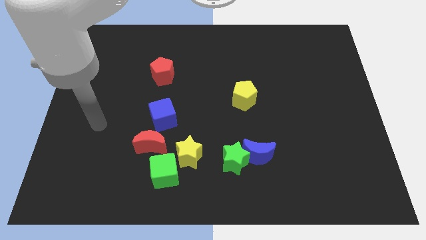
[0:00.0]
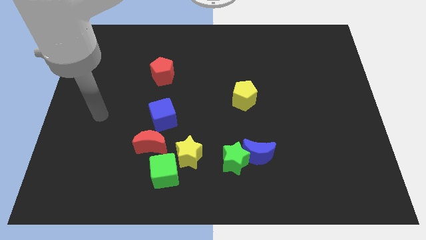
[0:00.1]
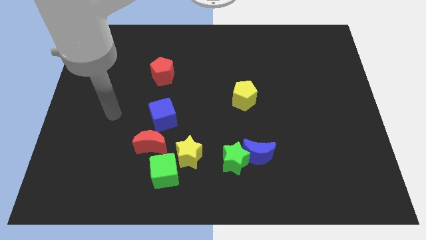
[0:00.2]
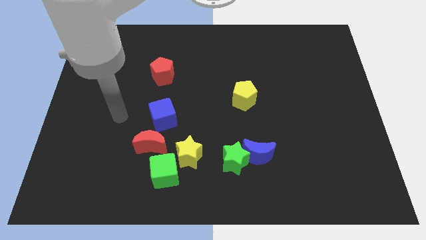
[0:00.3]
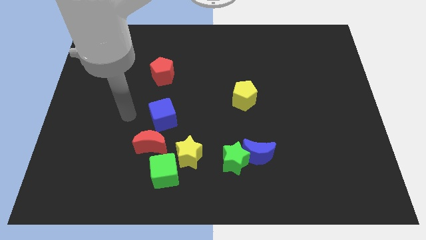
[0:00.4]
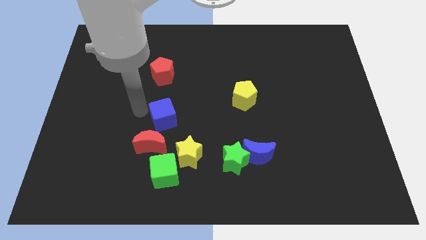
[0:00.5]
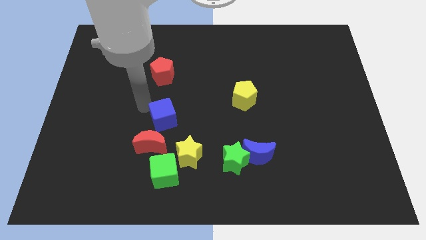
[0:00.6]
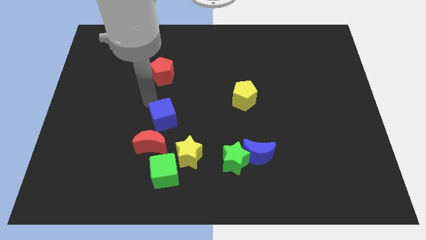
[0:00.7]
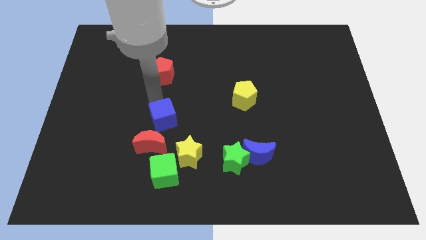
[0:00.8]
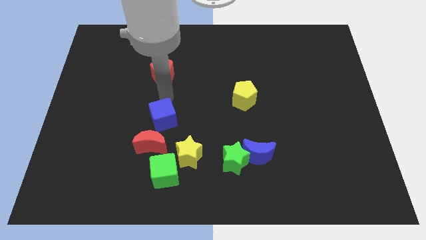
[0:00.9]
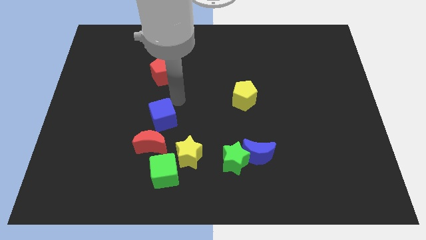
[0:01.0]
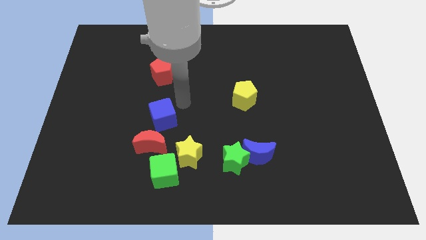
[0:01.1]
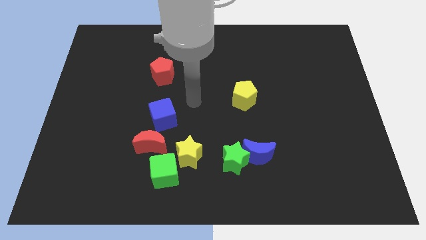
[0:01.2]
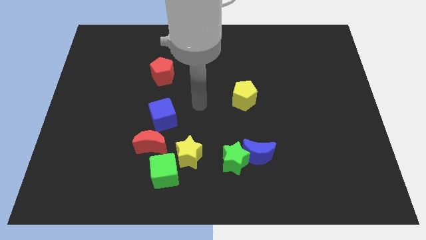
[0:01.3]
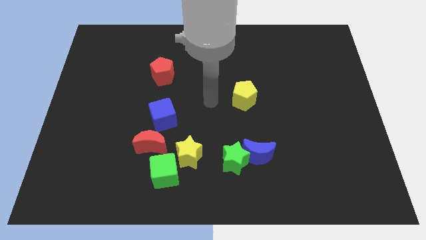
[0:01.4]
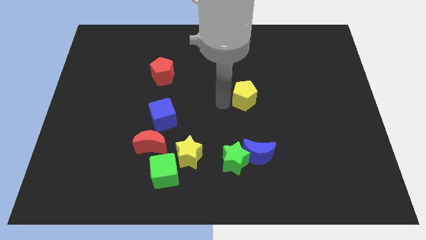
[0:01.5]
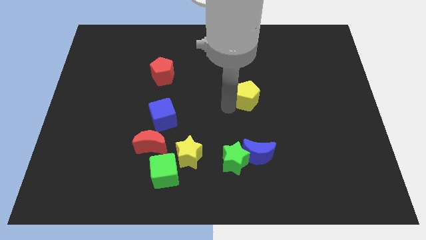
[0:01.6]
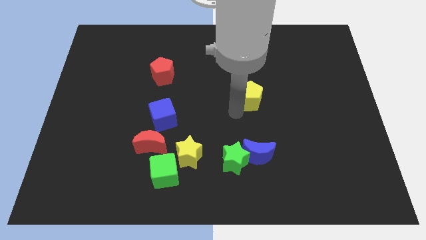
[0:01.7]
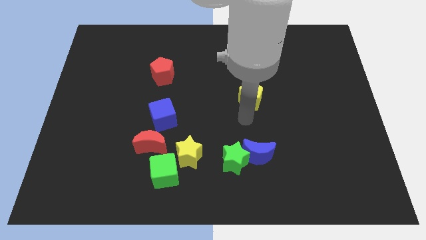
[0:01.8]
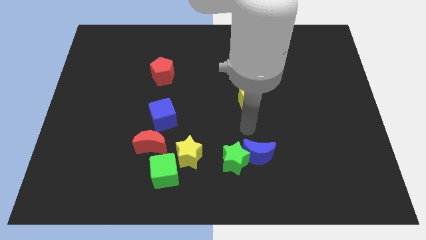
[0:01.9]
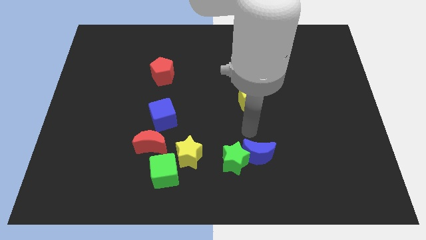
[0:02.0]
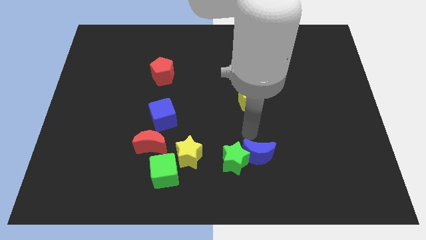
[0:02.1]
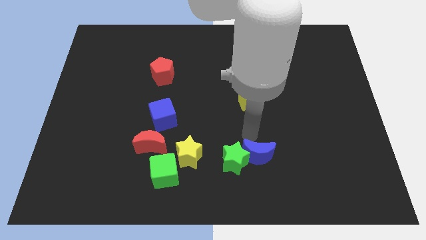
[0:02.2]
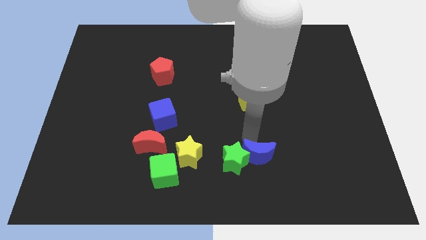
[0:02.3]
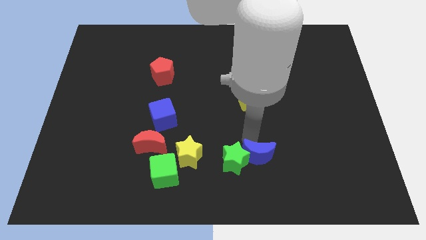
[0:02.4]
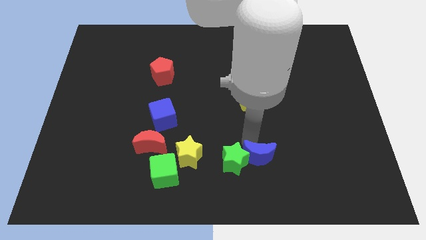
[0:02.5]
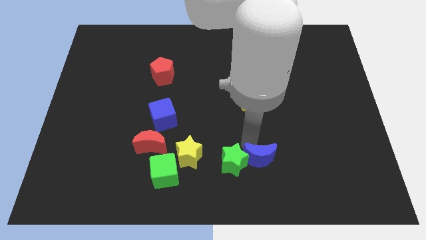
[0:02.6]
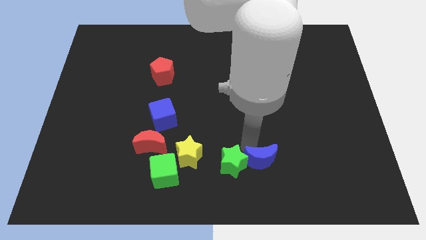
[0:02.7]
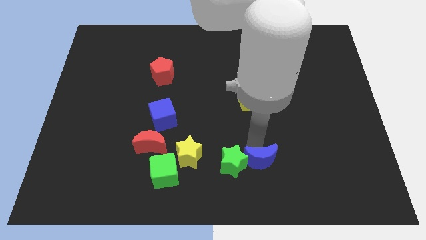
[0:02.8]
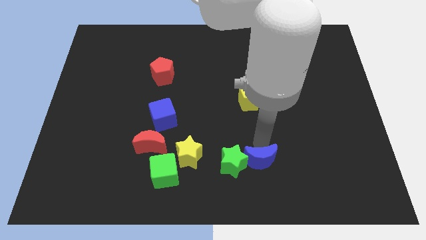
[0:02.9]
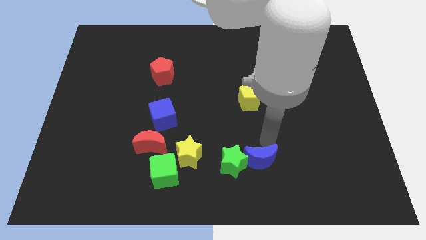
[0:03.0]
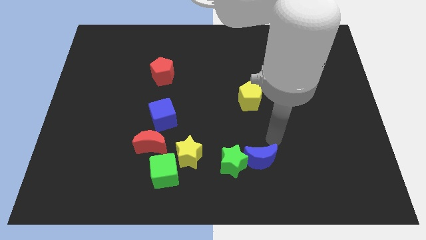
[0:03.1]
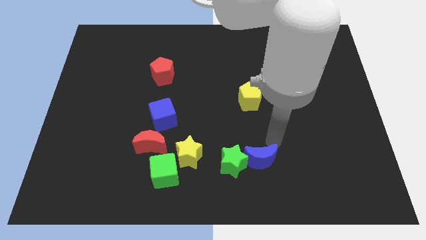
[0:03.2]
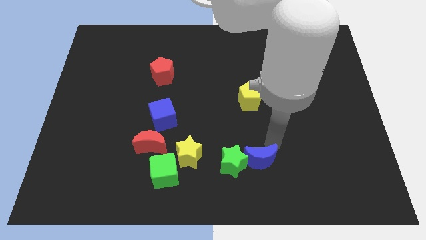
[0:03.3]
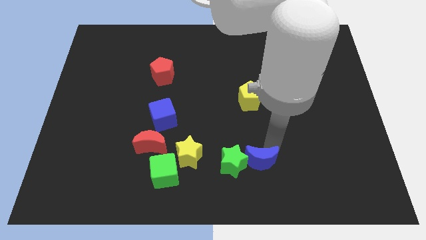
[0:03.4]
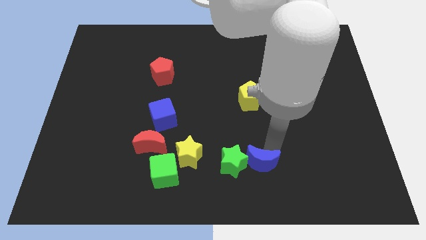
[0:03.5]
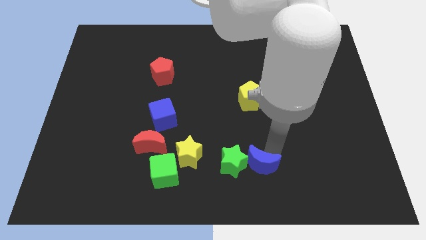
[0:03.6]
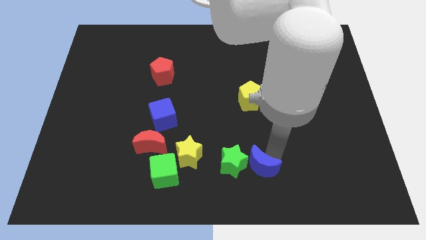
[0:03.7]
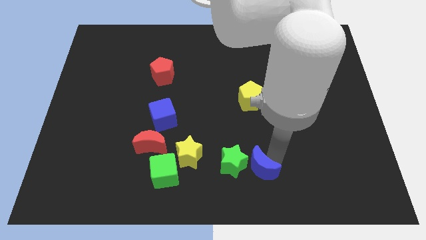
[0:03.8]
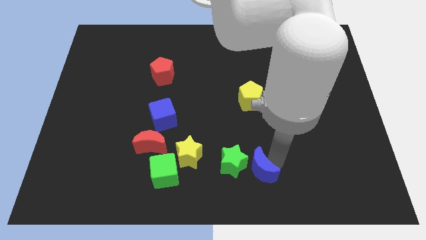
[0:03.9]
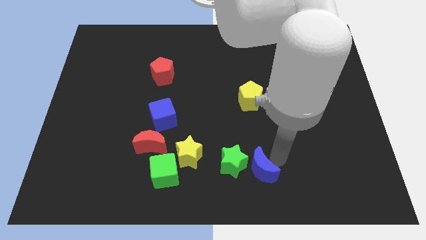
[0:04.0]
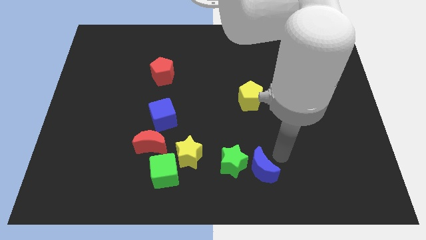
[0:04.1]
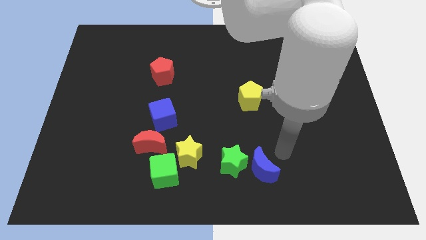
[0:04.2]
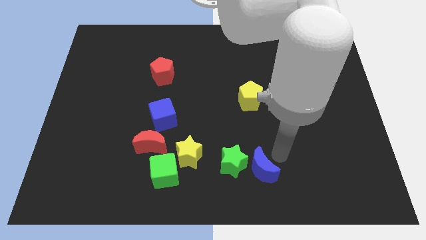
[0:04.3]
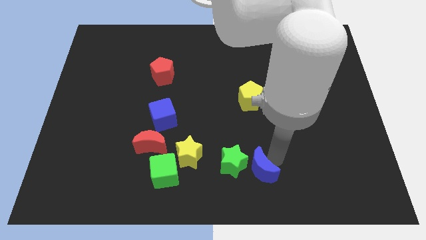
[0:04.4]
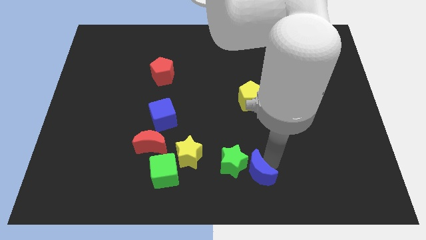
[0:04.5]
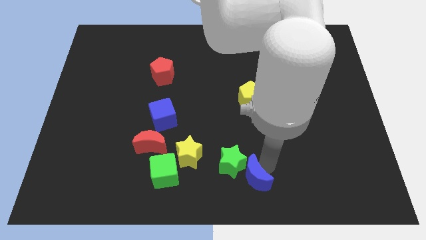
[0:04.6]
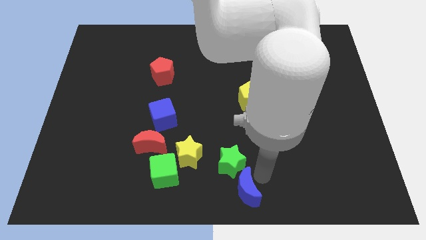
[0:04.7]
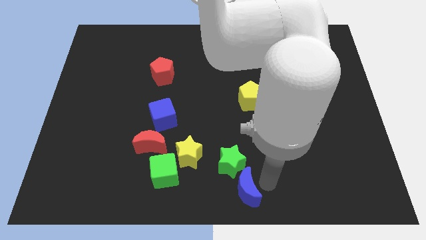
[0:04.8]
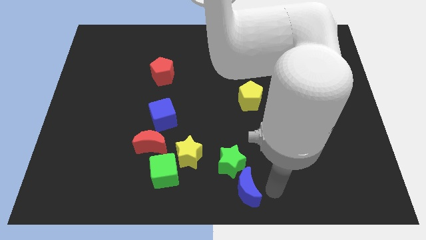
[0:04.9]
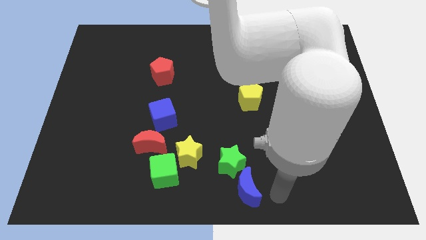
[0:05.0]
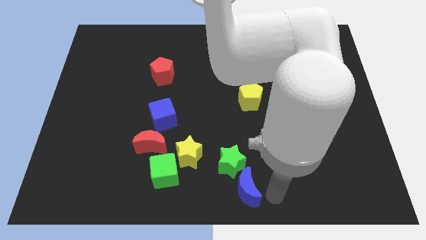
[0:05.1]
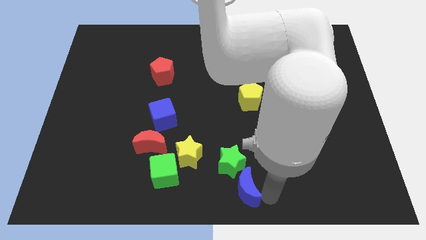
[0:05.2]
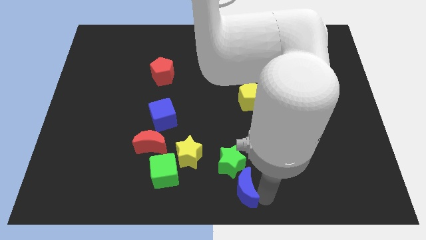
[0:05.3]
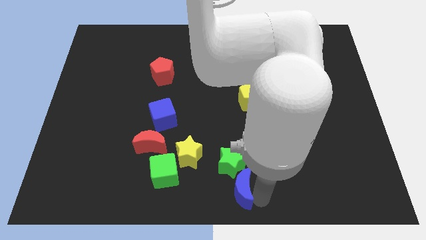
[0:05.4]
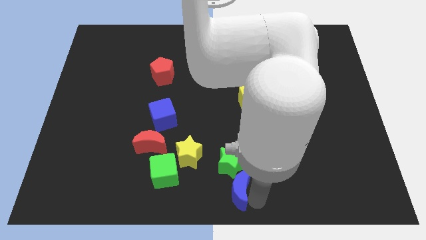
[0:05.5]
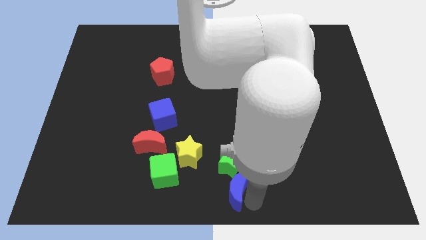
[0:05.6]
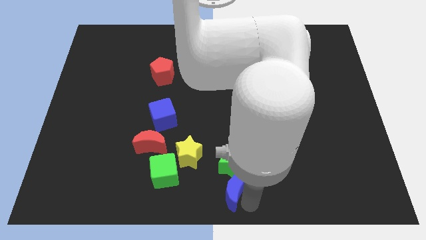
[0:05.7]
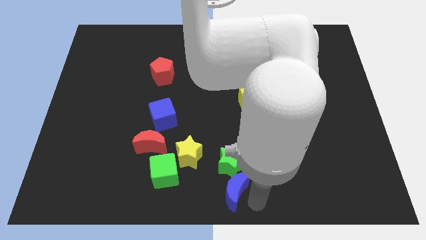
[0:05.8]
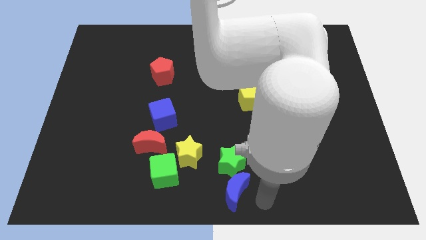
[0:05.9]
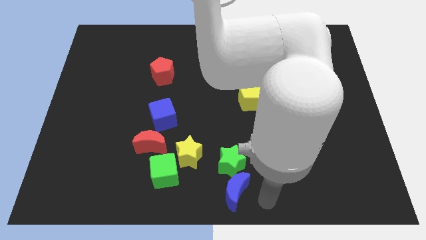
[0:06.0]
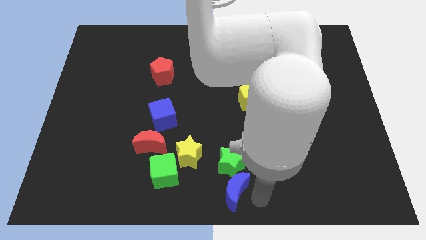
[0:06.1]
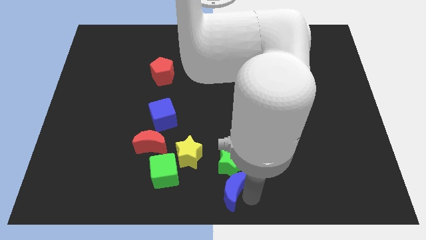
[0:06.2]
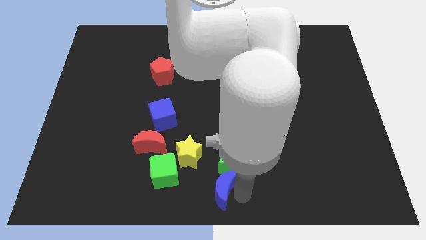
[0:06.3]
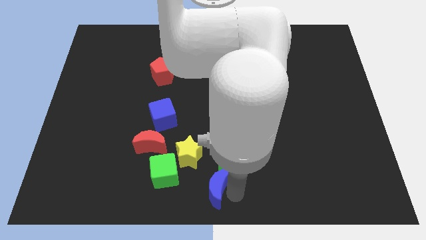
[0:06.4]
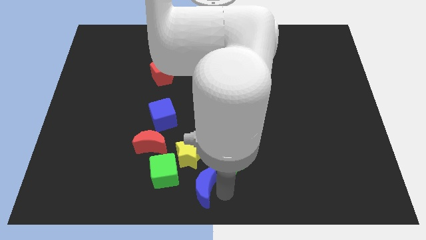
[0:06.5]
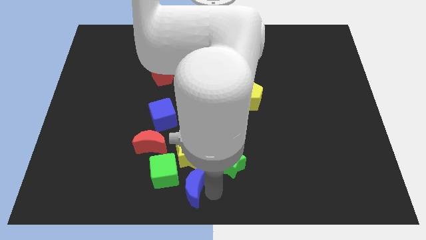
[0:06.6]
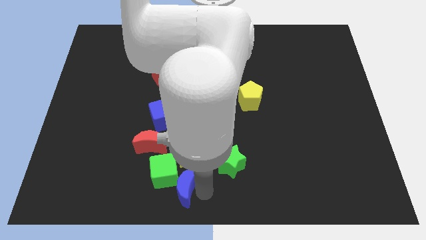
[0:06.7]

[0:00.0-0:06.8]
push the blue moon towards the green cube

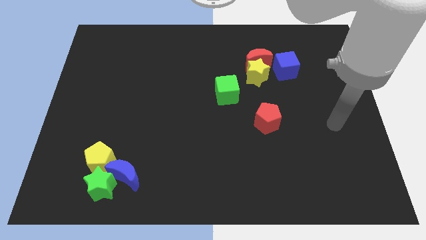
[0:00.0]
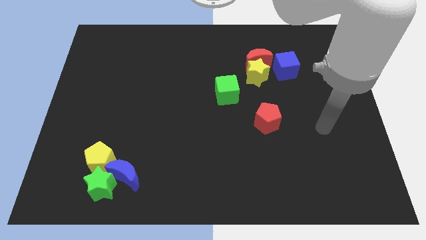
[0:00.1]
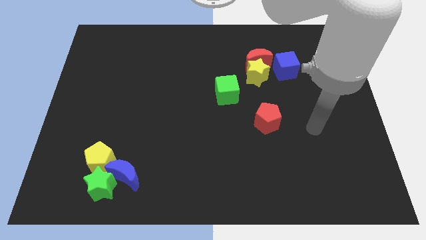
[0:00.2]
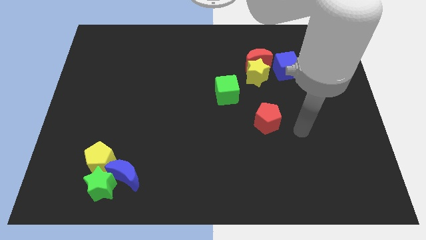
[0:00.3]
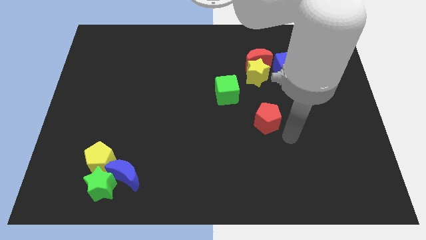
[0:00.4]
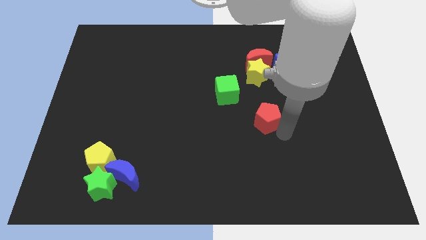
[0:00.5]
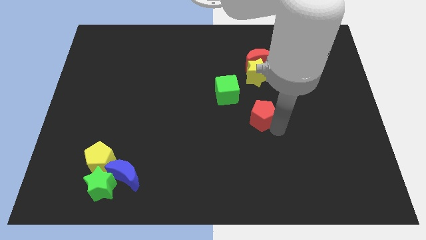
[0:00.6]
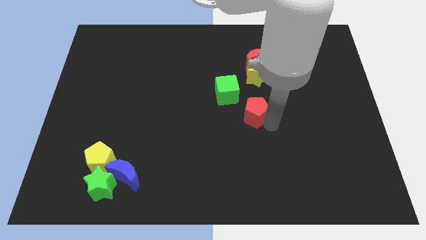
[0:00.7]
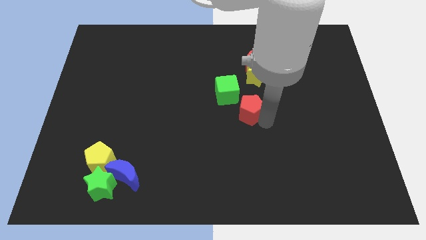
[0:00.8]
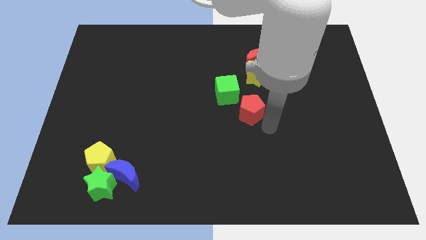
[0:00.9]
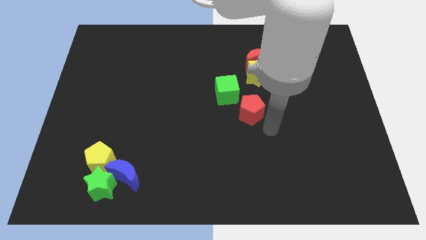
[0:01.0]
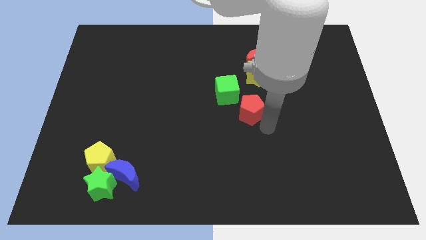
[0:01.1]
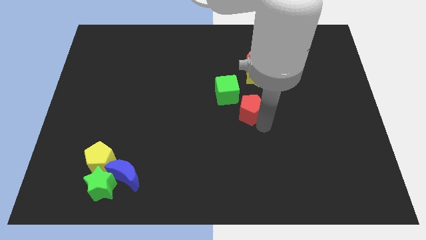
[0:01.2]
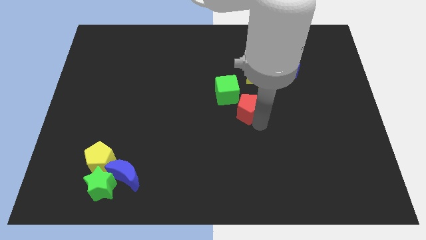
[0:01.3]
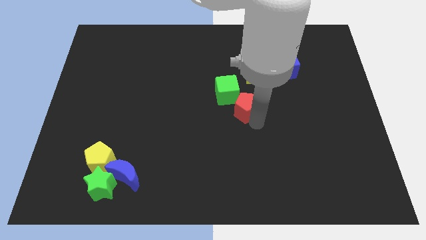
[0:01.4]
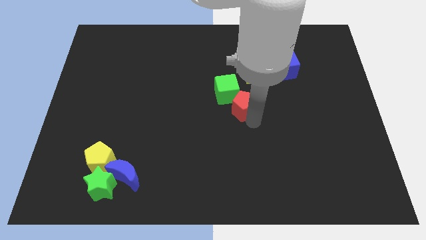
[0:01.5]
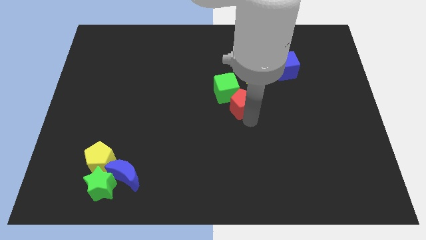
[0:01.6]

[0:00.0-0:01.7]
put the red pentagon close to the green cube
